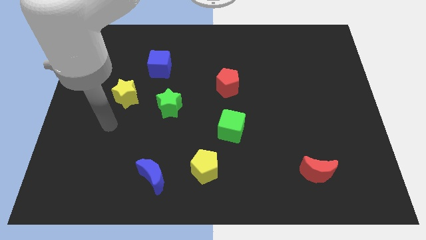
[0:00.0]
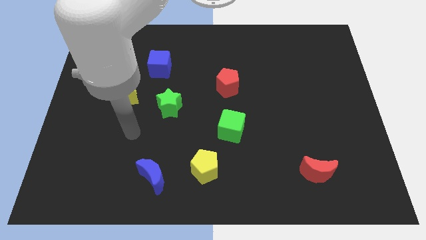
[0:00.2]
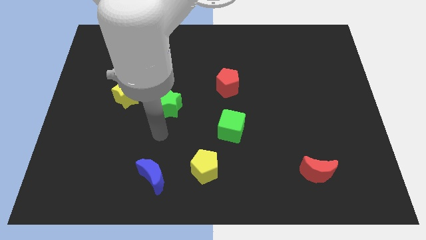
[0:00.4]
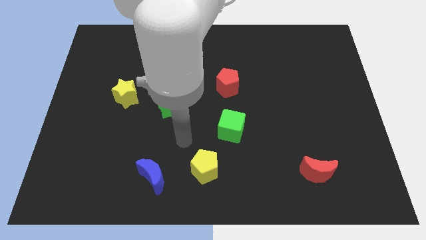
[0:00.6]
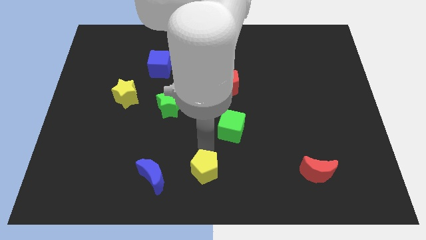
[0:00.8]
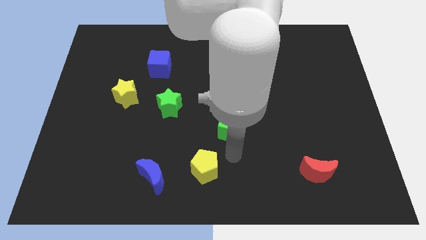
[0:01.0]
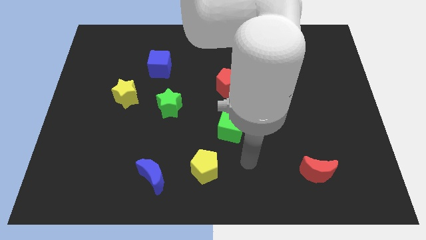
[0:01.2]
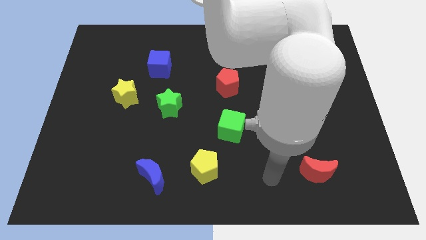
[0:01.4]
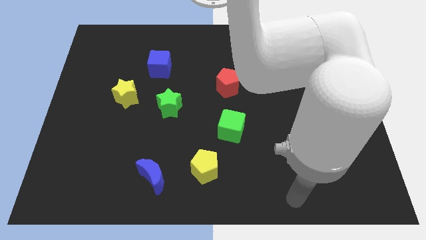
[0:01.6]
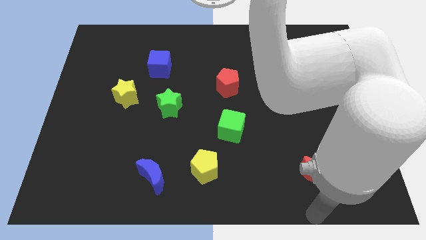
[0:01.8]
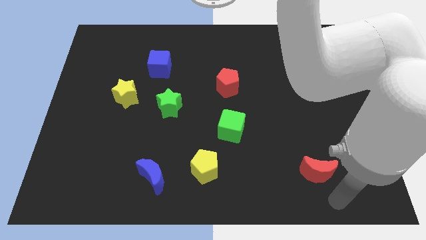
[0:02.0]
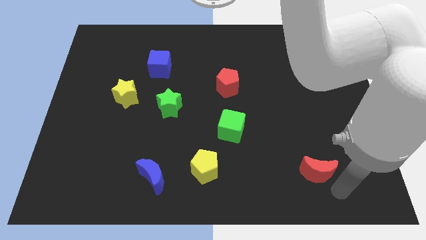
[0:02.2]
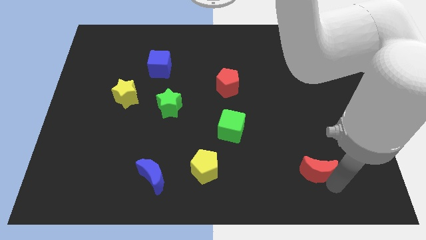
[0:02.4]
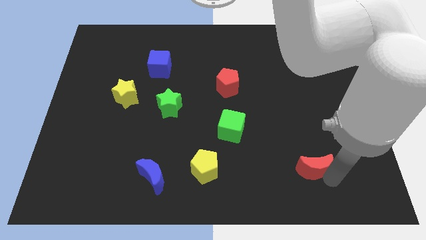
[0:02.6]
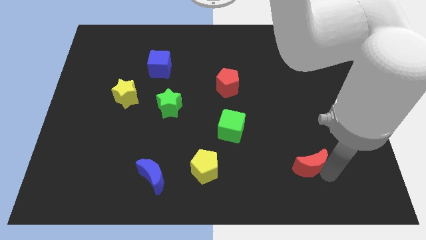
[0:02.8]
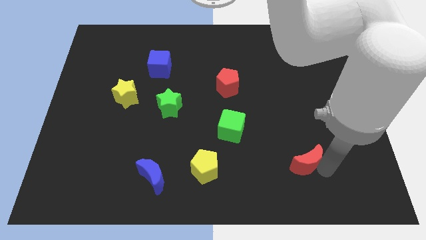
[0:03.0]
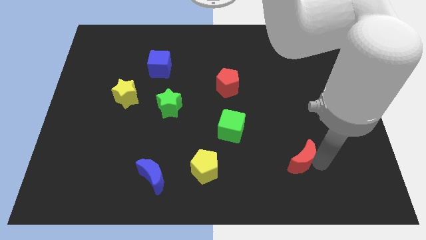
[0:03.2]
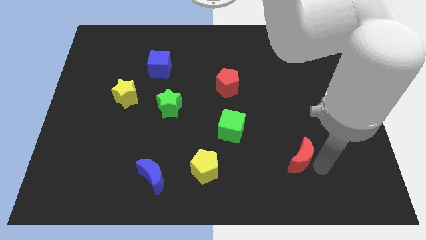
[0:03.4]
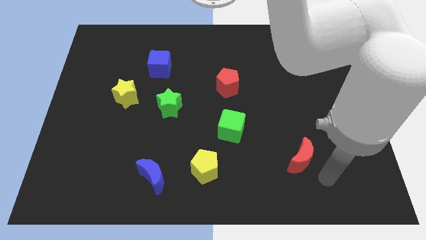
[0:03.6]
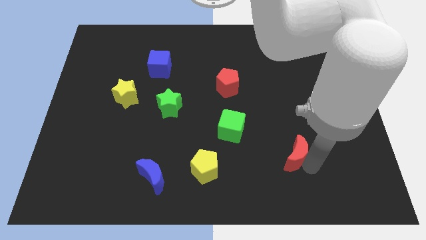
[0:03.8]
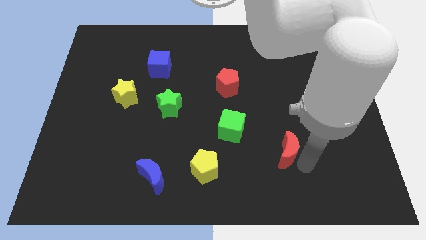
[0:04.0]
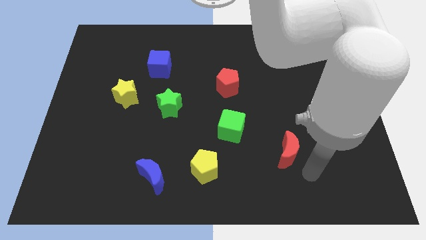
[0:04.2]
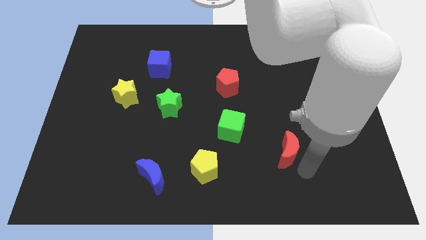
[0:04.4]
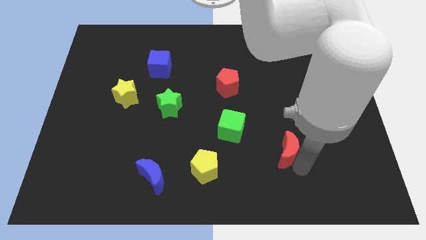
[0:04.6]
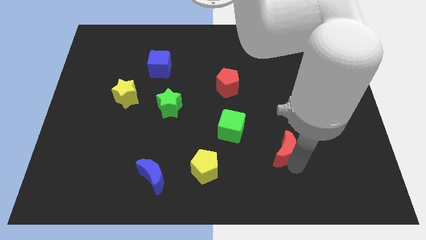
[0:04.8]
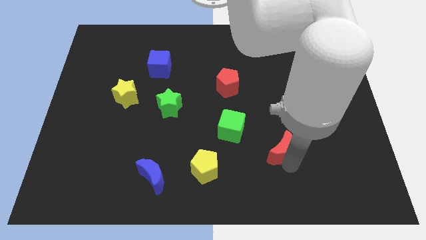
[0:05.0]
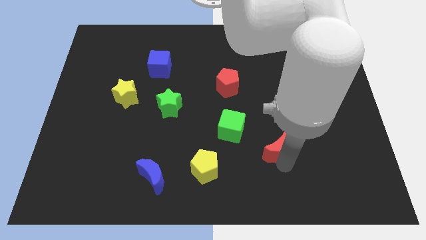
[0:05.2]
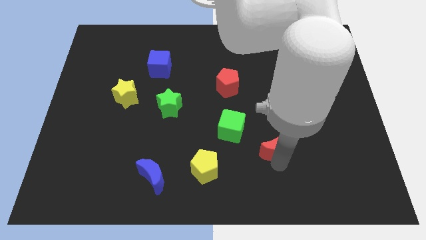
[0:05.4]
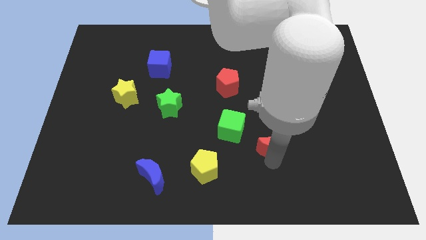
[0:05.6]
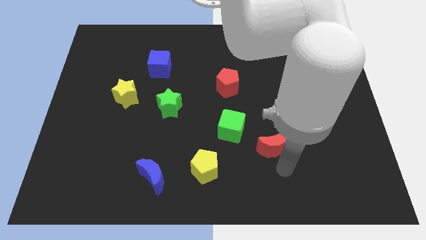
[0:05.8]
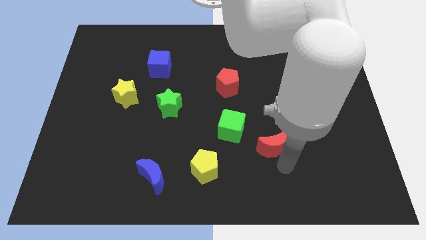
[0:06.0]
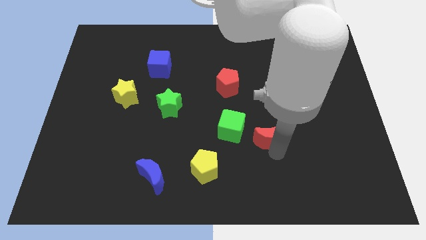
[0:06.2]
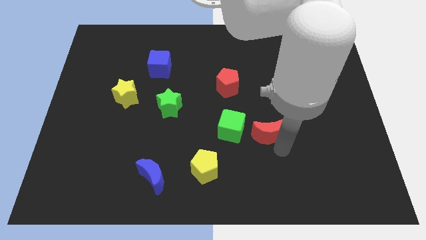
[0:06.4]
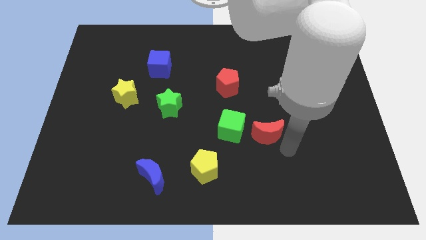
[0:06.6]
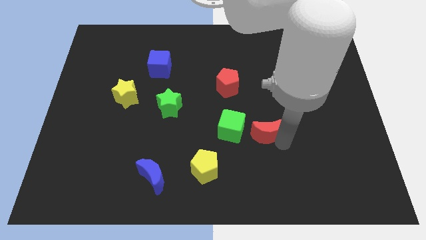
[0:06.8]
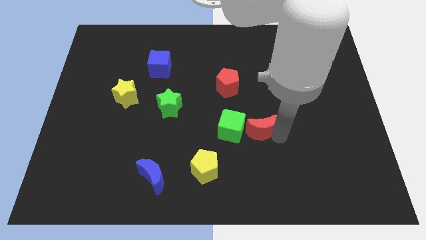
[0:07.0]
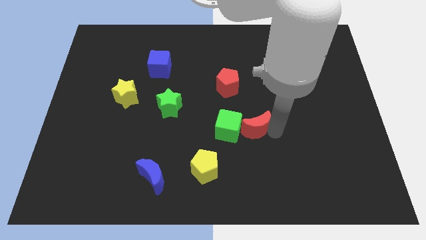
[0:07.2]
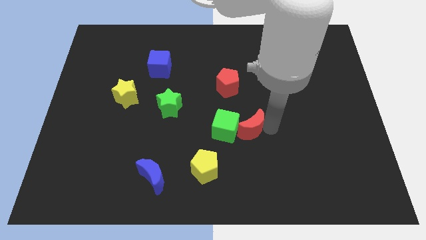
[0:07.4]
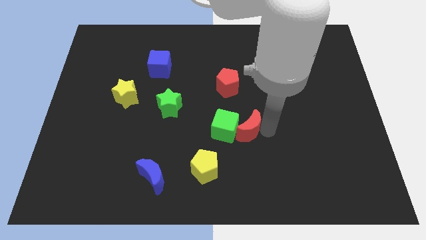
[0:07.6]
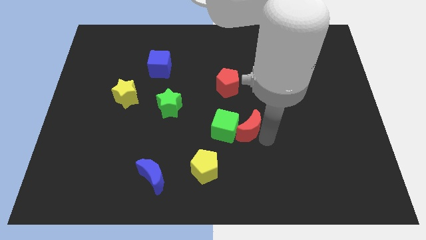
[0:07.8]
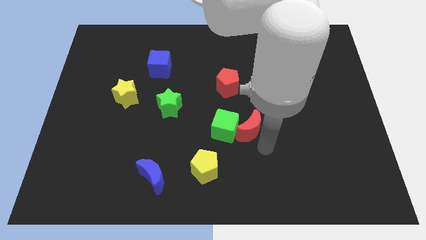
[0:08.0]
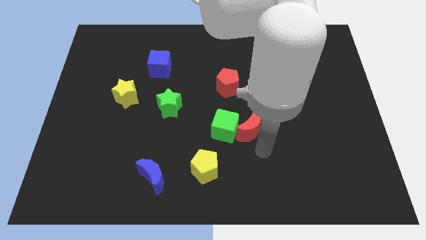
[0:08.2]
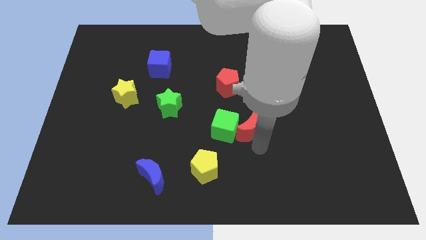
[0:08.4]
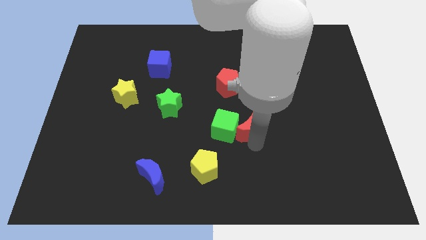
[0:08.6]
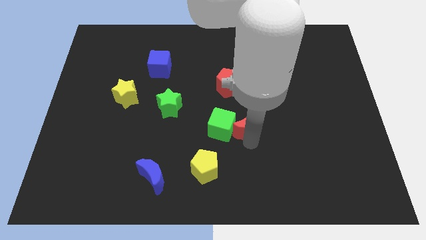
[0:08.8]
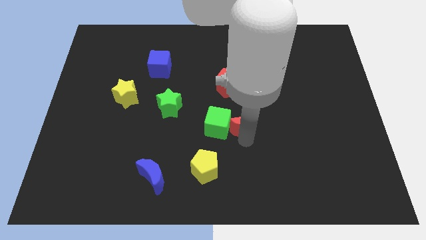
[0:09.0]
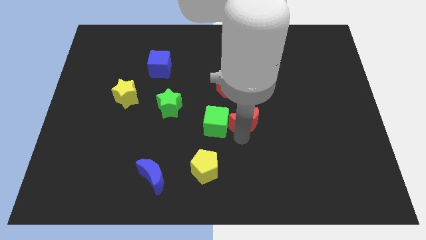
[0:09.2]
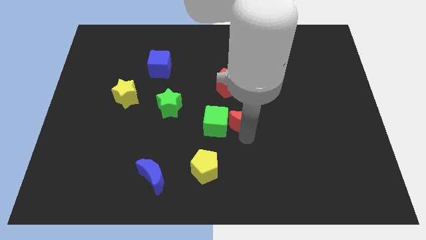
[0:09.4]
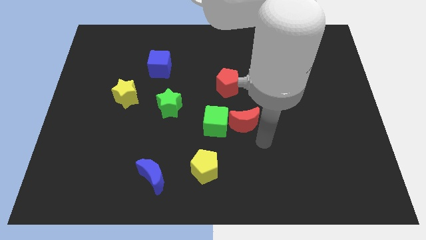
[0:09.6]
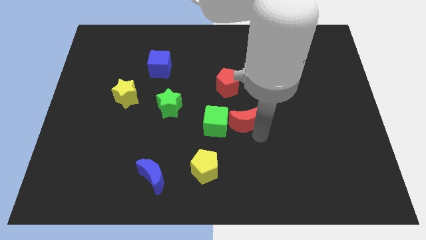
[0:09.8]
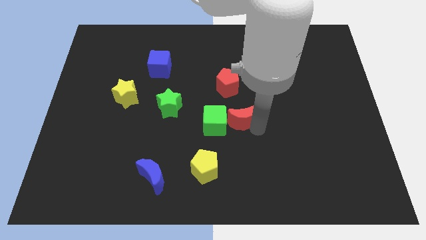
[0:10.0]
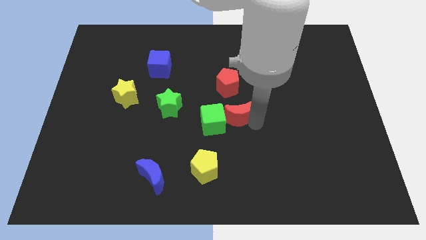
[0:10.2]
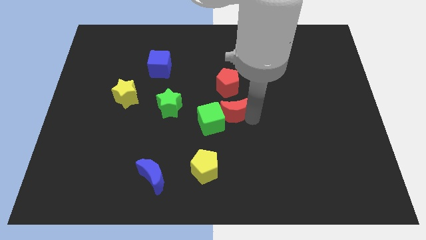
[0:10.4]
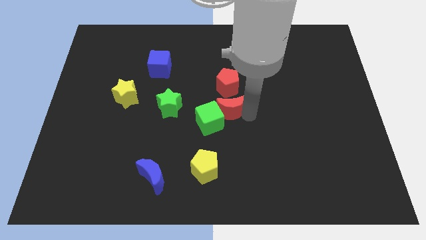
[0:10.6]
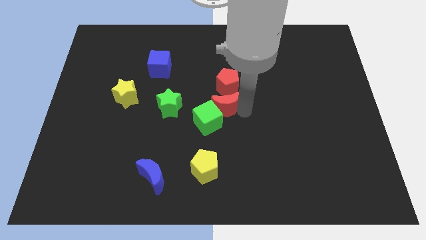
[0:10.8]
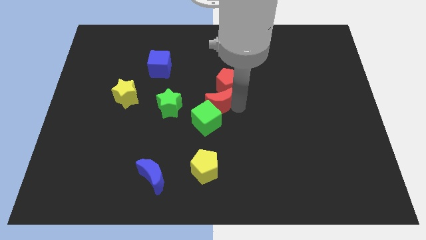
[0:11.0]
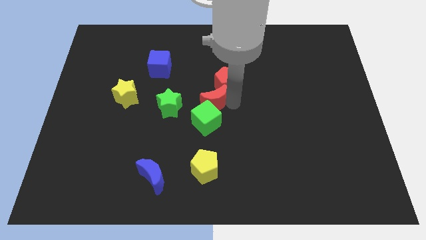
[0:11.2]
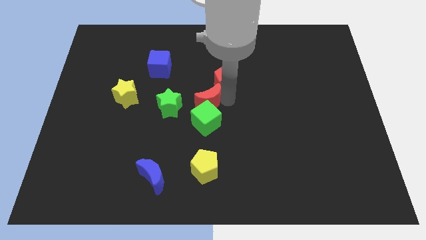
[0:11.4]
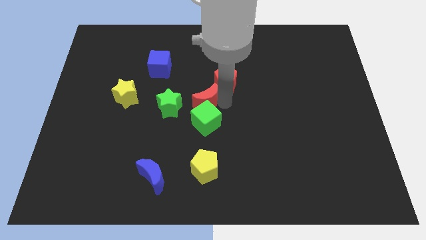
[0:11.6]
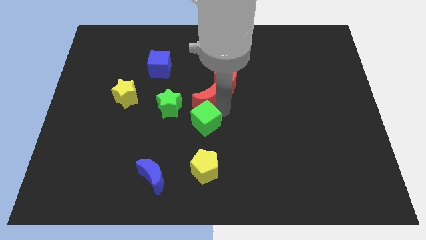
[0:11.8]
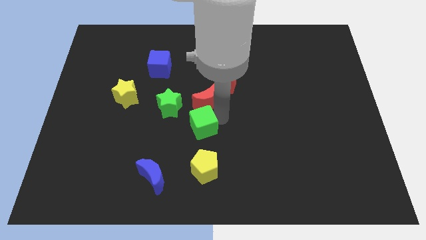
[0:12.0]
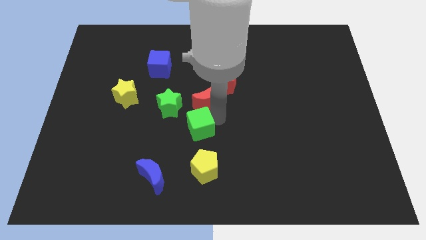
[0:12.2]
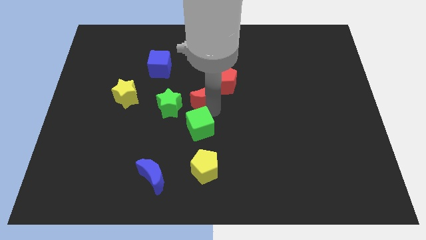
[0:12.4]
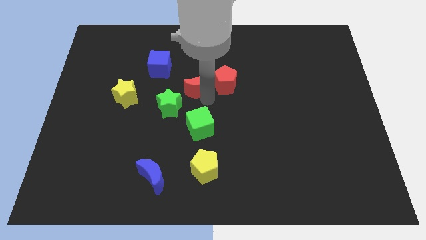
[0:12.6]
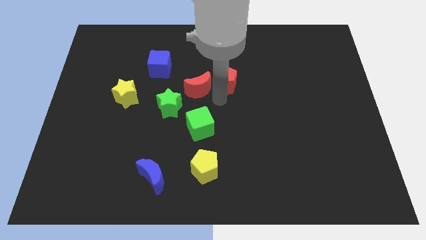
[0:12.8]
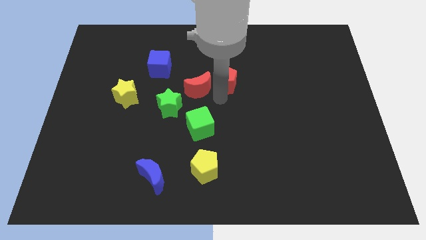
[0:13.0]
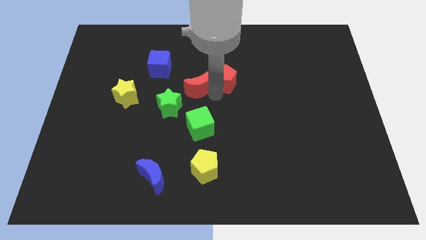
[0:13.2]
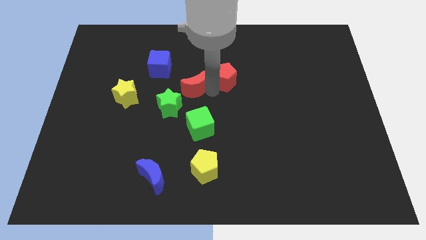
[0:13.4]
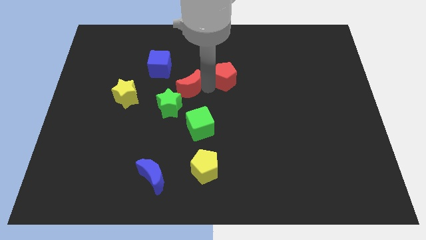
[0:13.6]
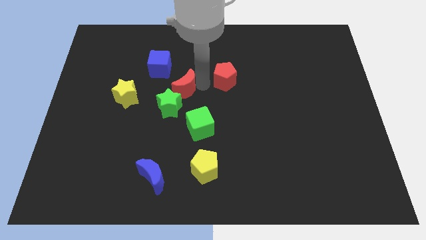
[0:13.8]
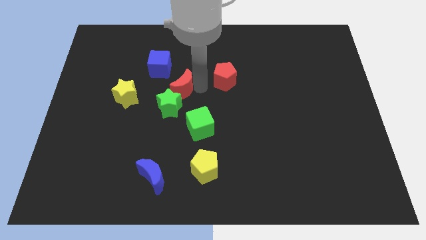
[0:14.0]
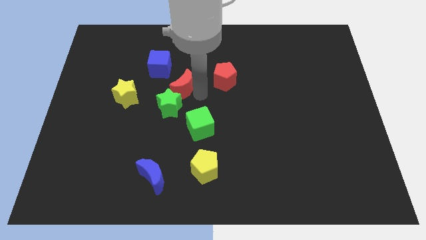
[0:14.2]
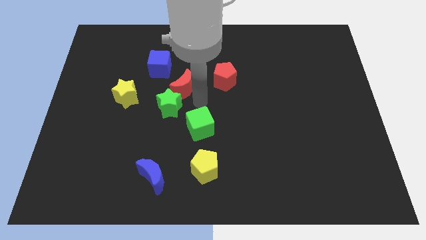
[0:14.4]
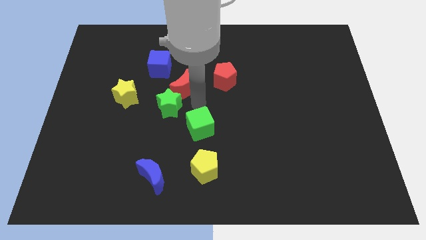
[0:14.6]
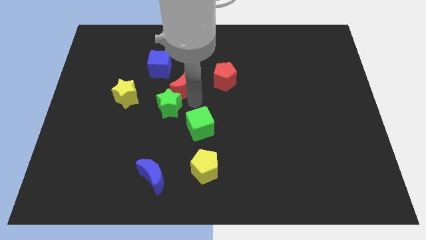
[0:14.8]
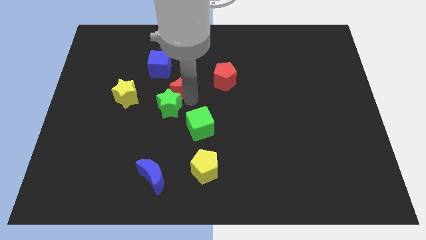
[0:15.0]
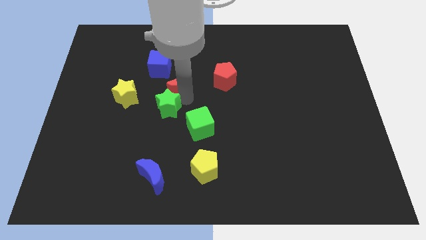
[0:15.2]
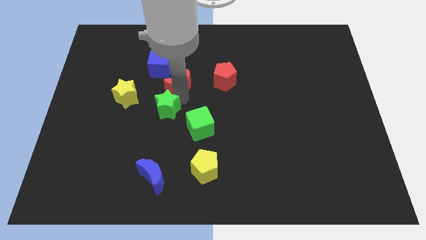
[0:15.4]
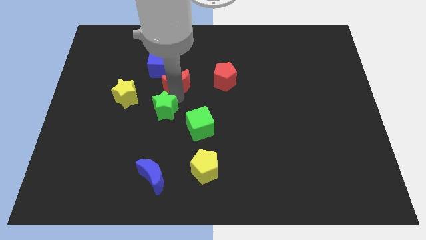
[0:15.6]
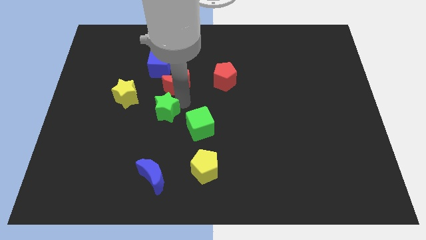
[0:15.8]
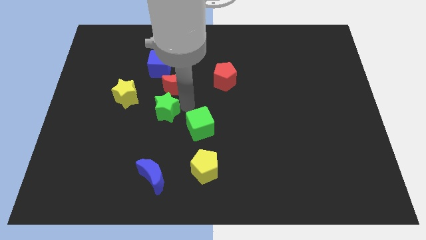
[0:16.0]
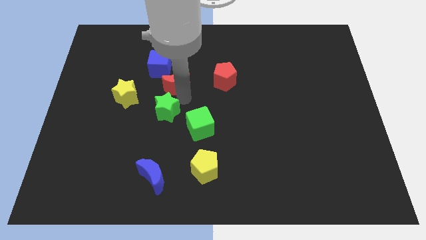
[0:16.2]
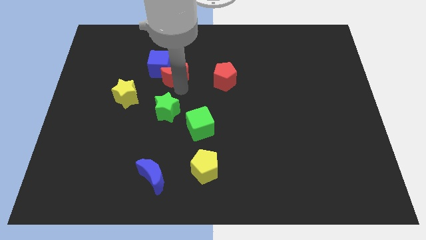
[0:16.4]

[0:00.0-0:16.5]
slide the red moon close to the blue cube
